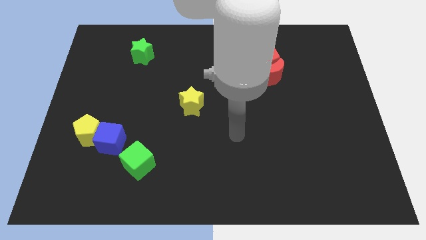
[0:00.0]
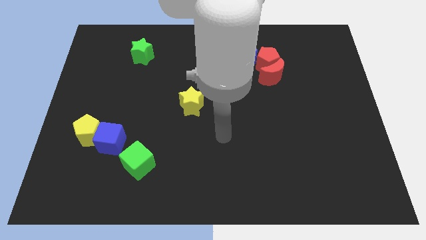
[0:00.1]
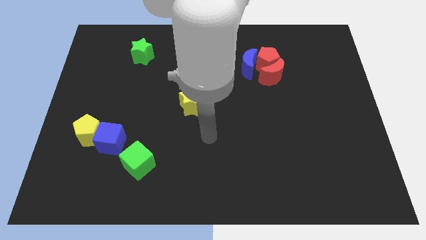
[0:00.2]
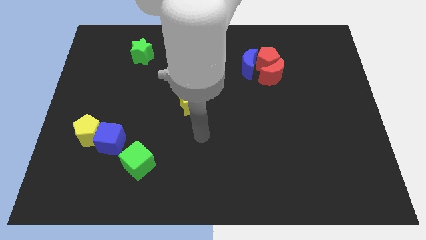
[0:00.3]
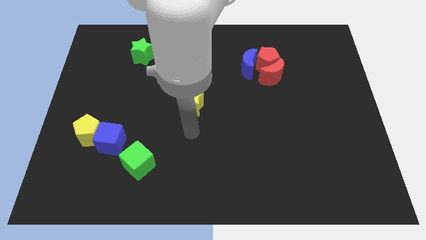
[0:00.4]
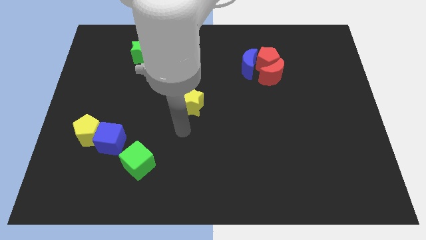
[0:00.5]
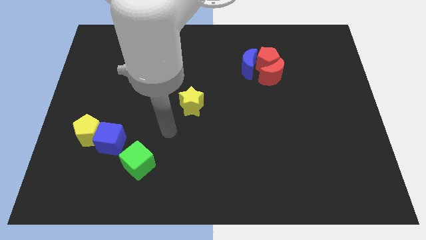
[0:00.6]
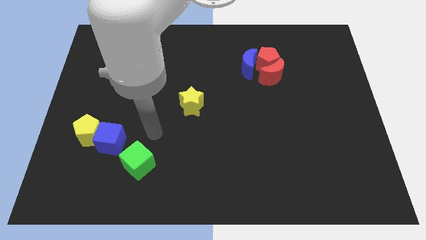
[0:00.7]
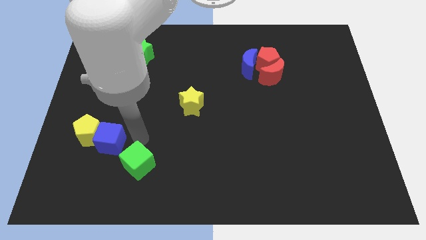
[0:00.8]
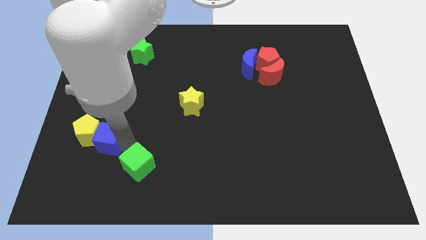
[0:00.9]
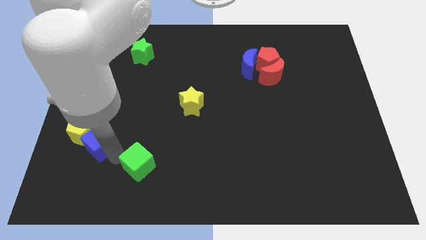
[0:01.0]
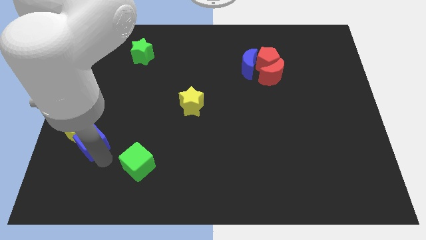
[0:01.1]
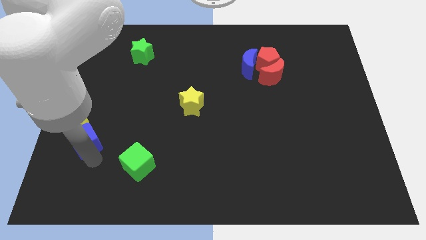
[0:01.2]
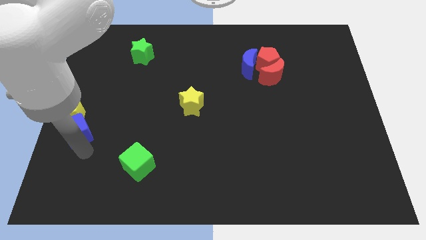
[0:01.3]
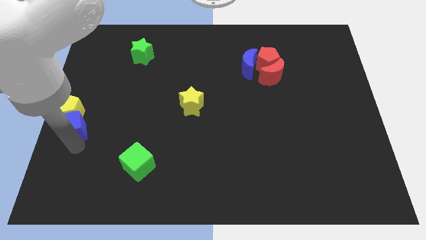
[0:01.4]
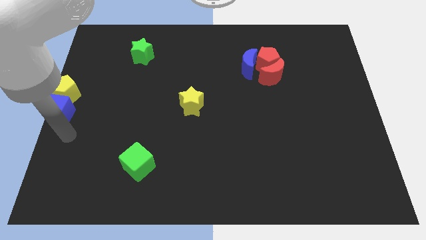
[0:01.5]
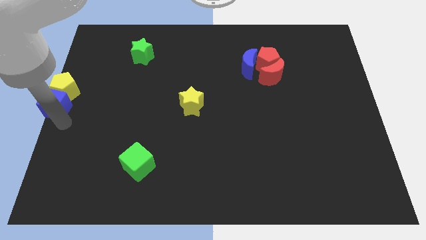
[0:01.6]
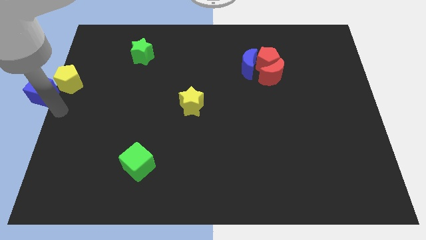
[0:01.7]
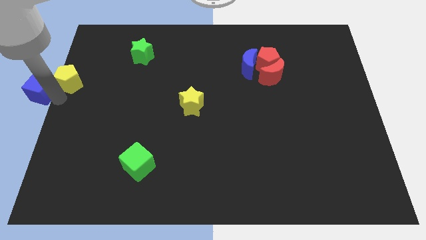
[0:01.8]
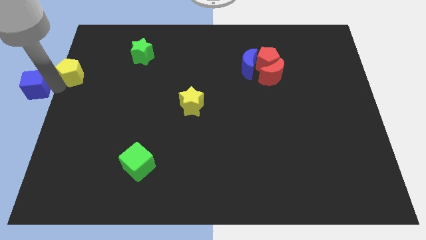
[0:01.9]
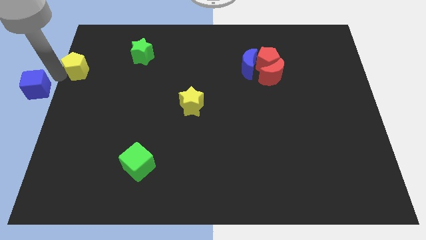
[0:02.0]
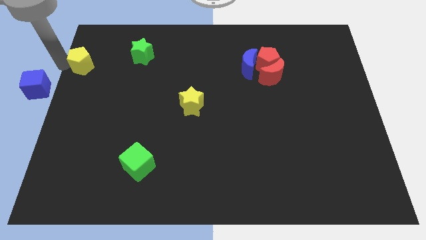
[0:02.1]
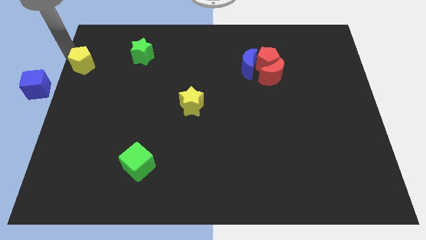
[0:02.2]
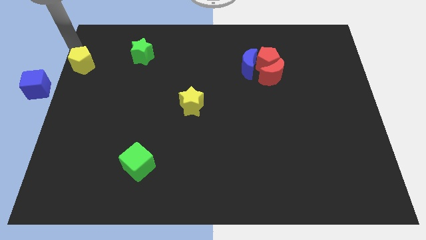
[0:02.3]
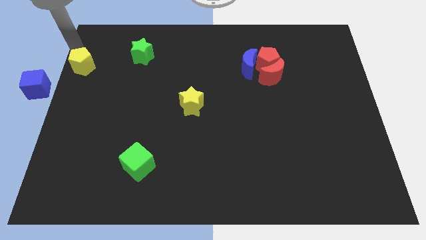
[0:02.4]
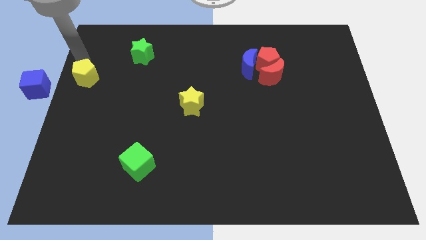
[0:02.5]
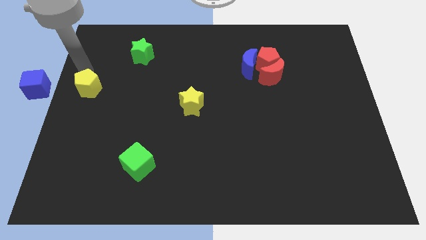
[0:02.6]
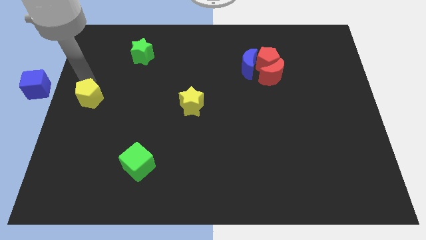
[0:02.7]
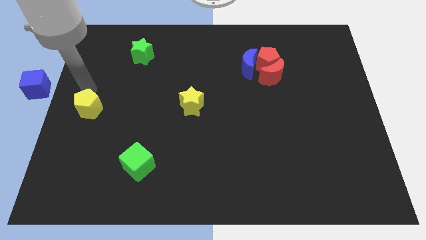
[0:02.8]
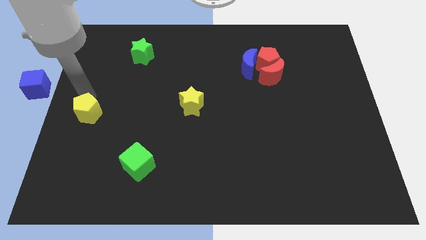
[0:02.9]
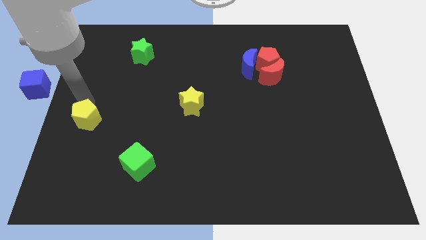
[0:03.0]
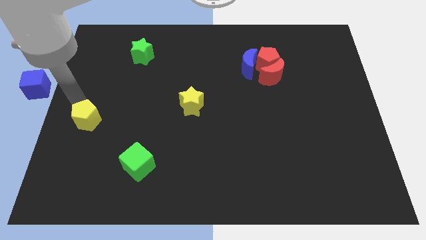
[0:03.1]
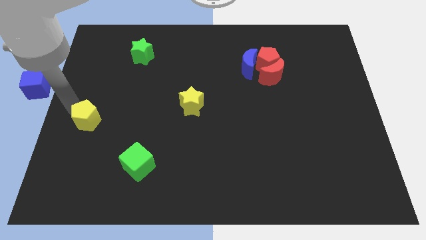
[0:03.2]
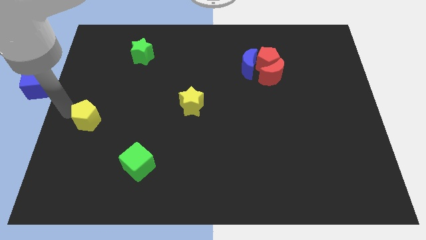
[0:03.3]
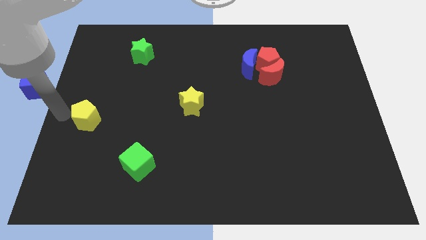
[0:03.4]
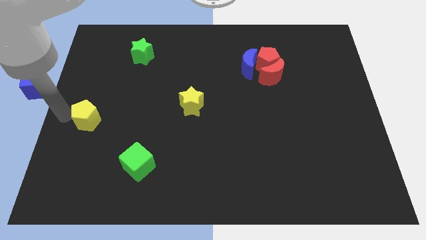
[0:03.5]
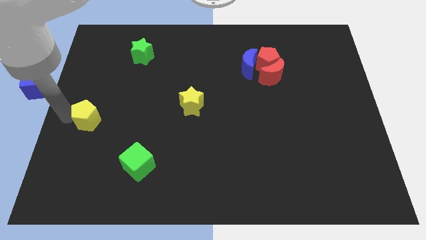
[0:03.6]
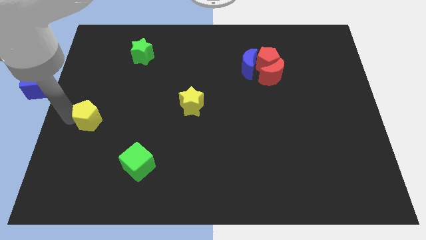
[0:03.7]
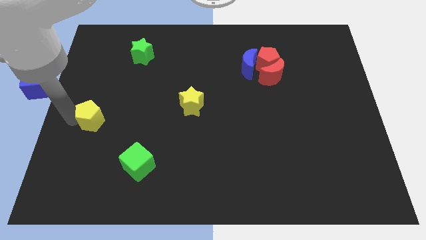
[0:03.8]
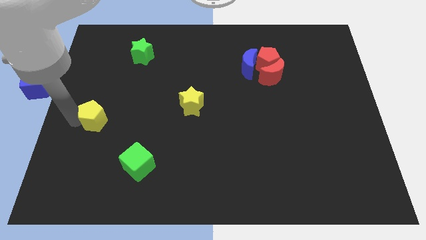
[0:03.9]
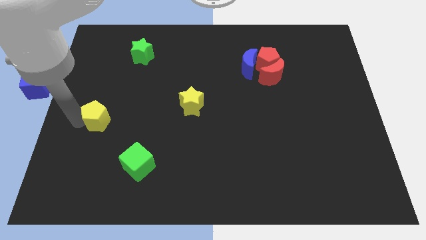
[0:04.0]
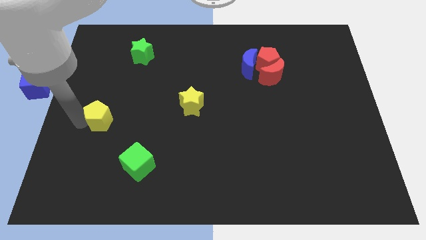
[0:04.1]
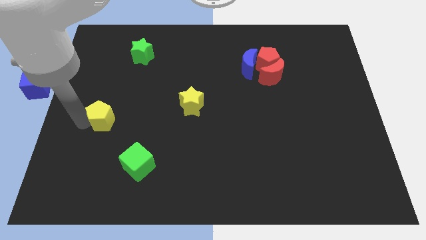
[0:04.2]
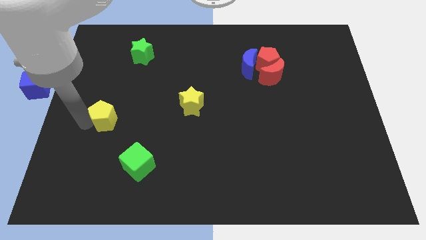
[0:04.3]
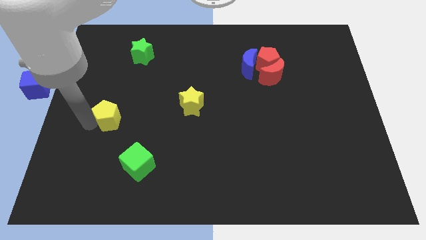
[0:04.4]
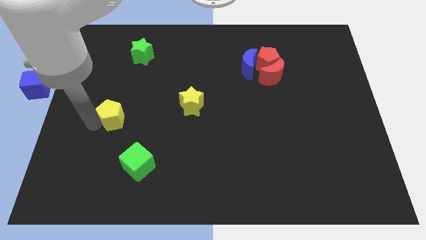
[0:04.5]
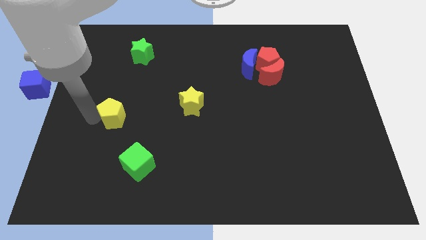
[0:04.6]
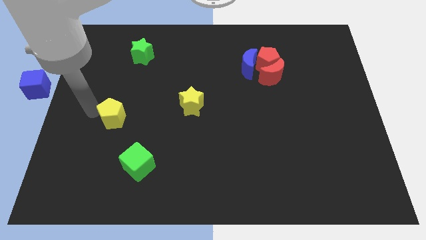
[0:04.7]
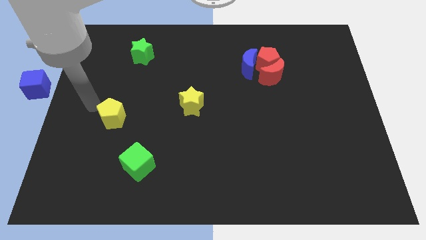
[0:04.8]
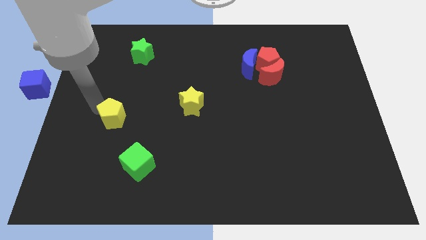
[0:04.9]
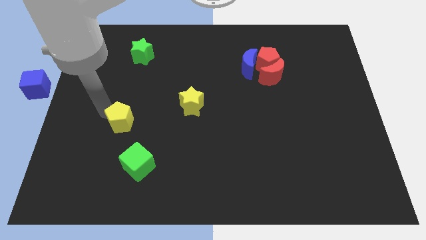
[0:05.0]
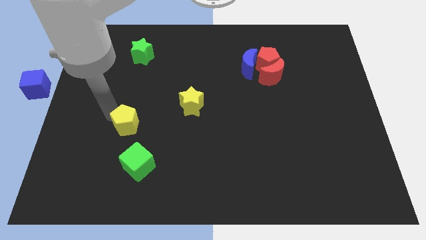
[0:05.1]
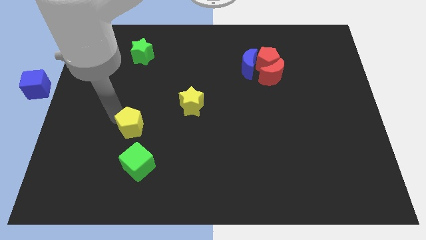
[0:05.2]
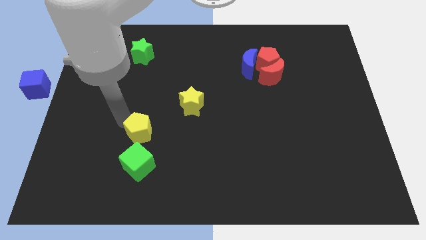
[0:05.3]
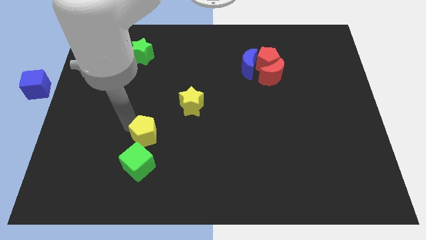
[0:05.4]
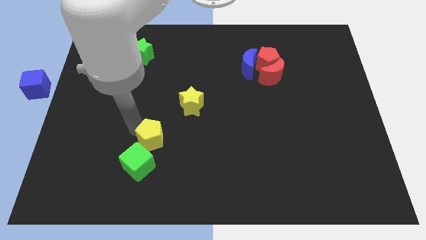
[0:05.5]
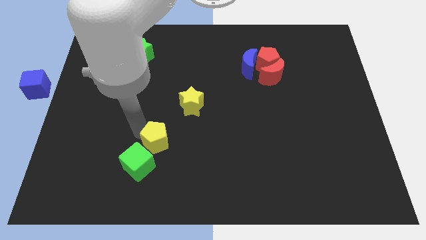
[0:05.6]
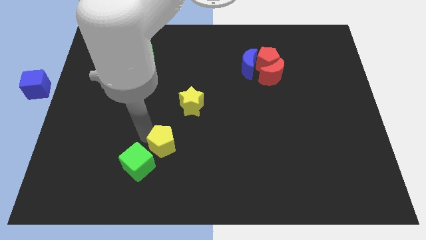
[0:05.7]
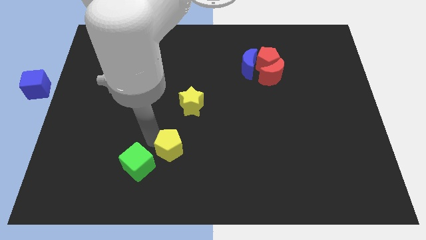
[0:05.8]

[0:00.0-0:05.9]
slide the yellow pentagon to the bottom of the yellow star

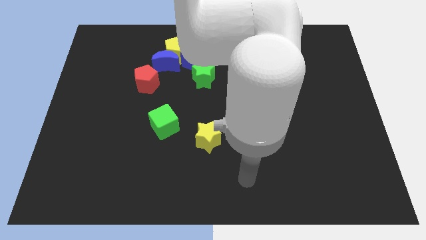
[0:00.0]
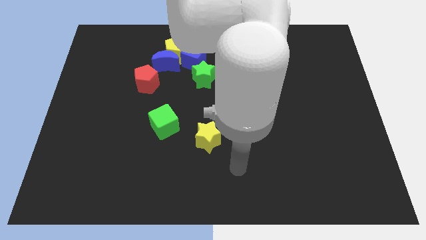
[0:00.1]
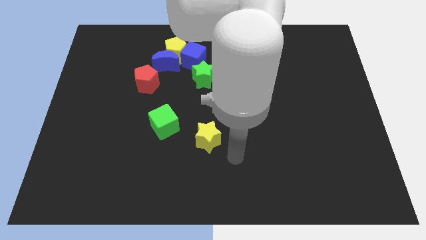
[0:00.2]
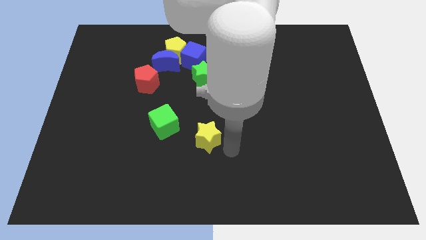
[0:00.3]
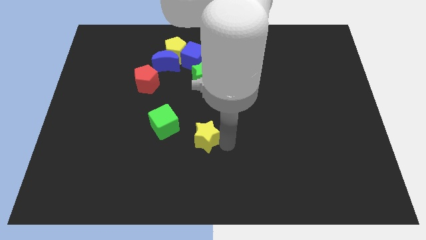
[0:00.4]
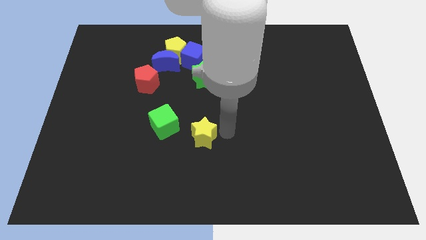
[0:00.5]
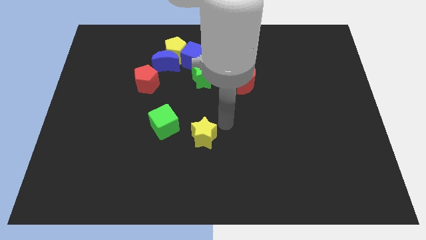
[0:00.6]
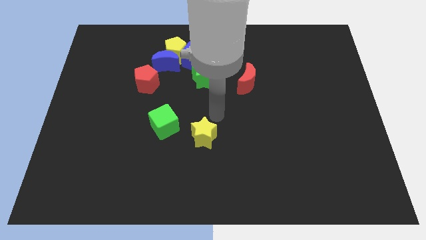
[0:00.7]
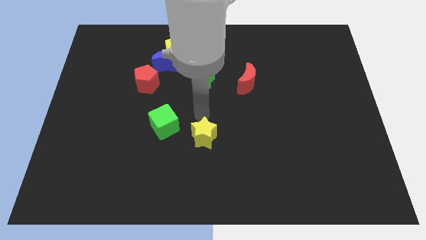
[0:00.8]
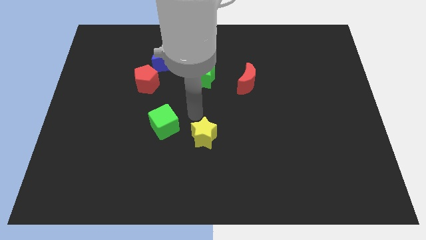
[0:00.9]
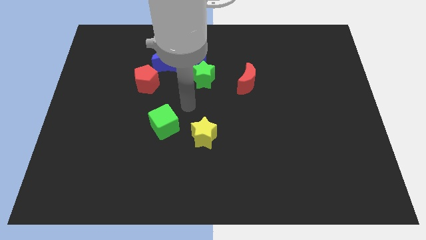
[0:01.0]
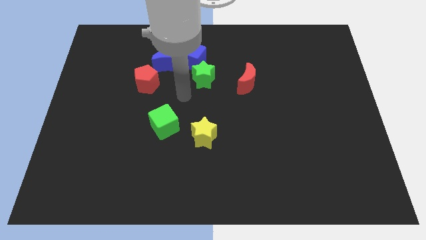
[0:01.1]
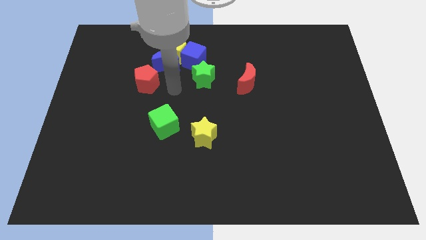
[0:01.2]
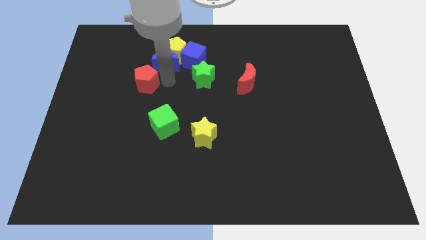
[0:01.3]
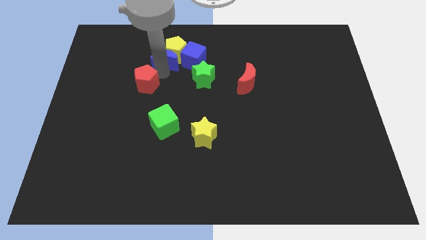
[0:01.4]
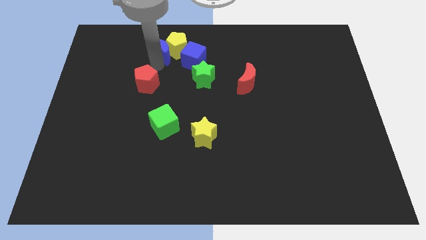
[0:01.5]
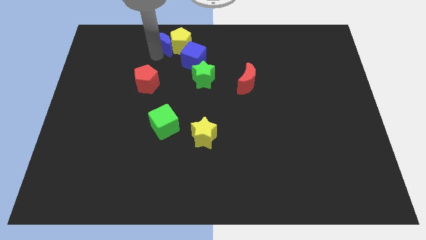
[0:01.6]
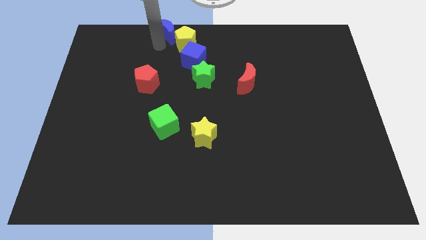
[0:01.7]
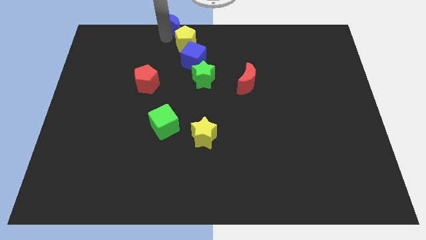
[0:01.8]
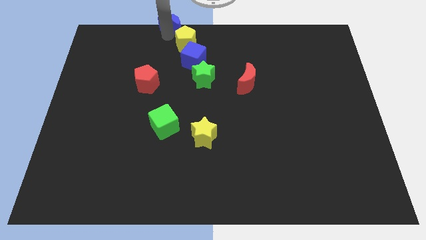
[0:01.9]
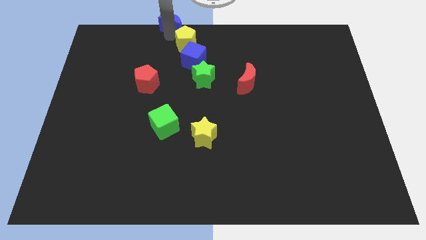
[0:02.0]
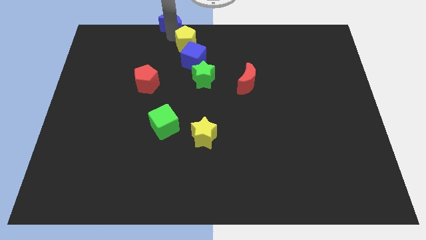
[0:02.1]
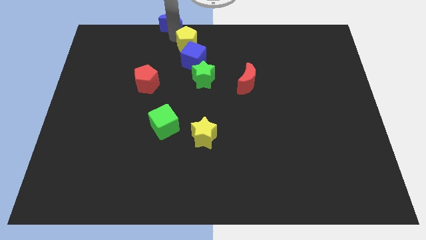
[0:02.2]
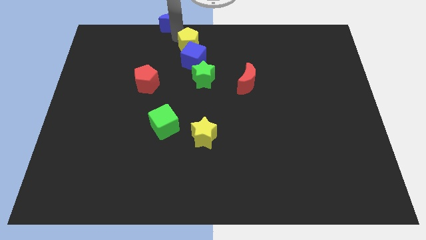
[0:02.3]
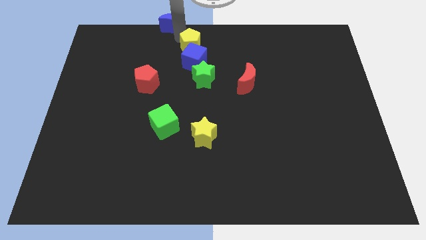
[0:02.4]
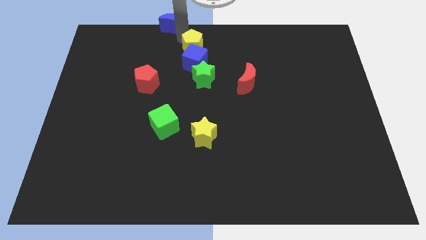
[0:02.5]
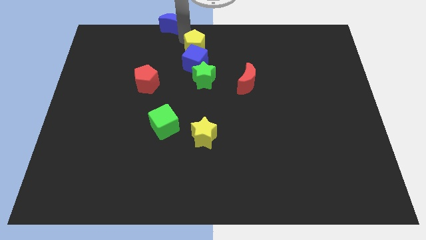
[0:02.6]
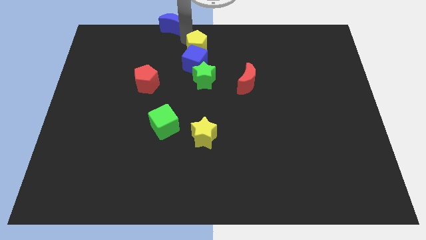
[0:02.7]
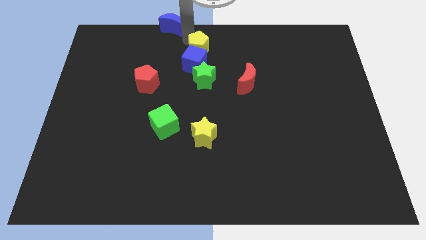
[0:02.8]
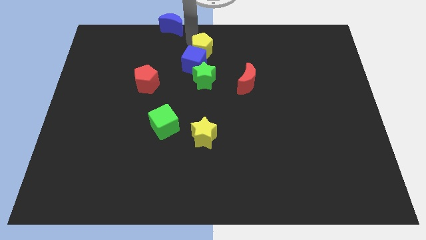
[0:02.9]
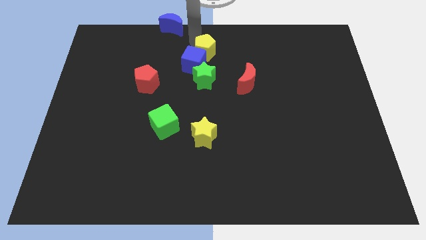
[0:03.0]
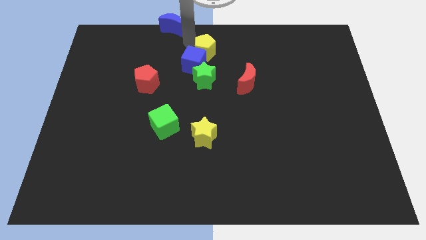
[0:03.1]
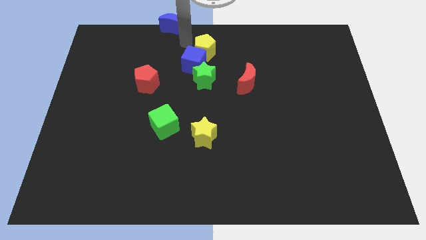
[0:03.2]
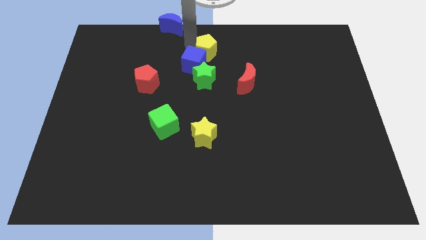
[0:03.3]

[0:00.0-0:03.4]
push the yellow pentagon to the right of the blue cube
